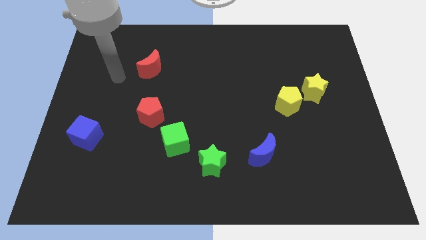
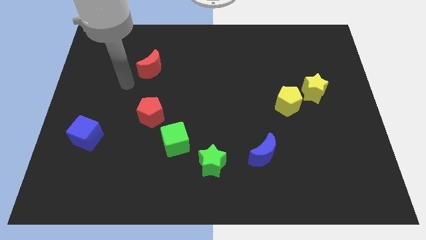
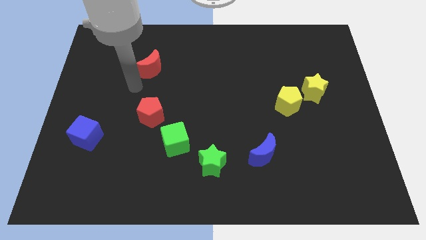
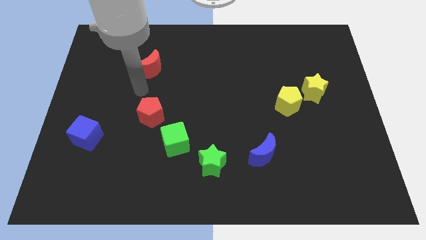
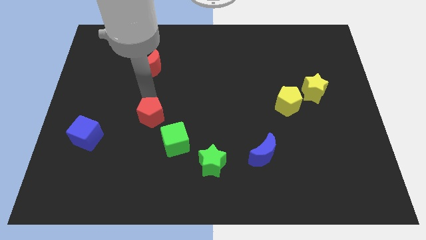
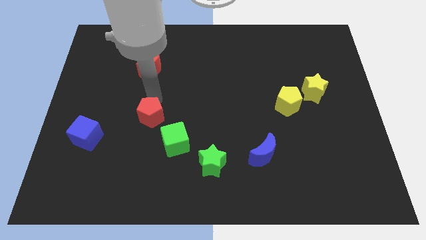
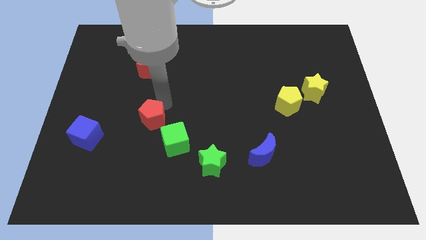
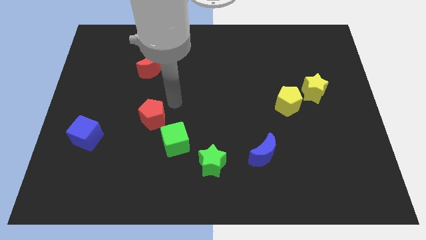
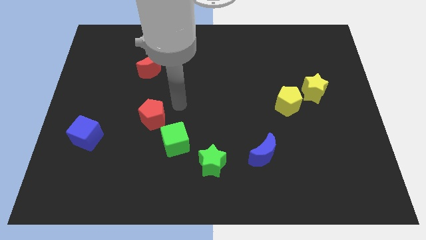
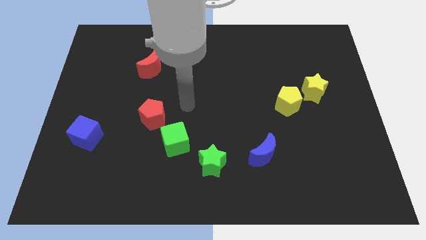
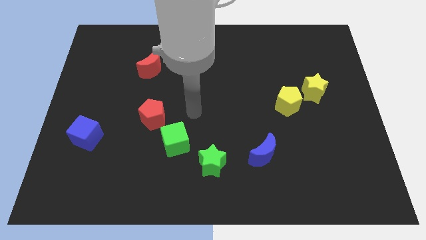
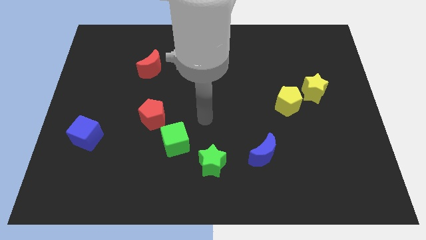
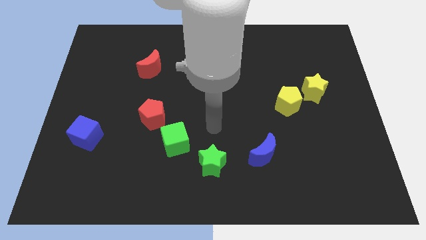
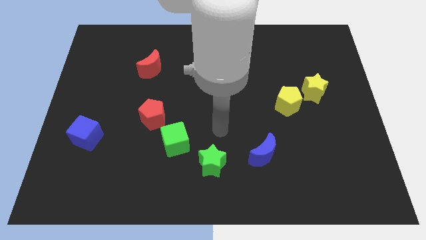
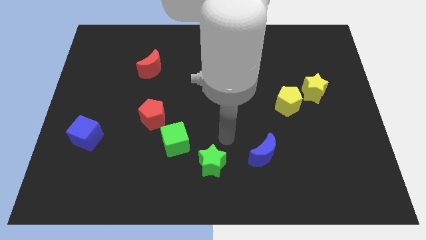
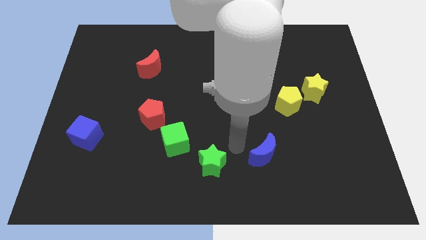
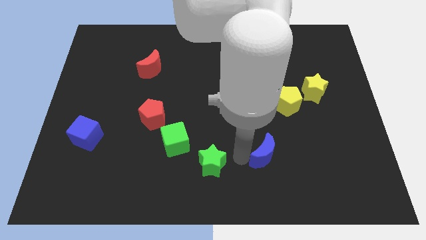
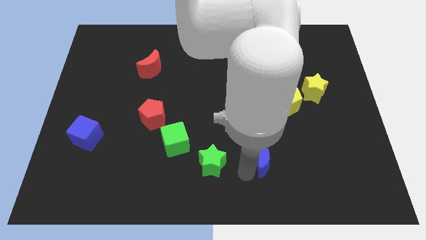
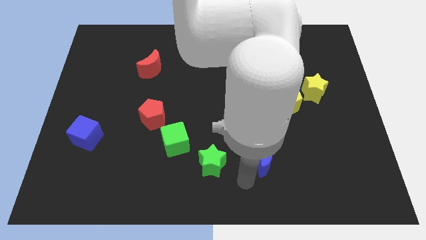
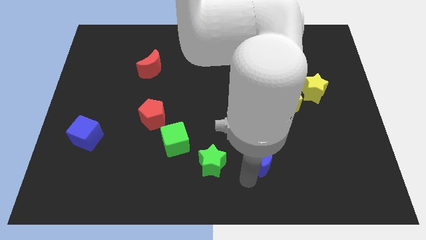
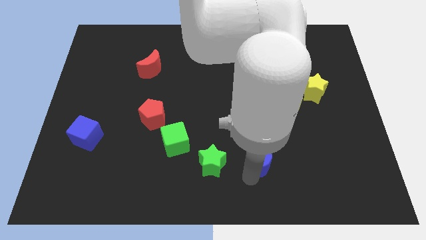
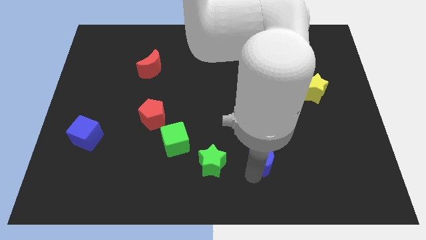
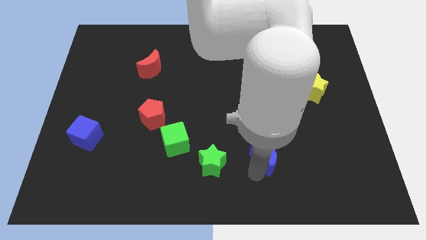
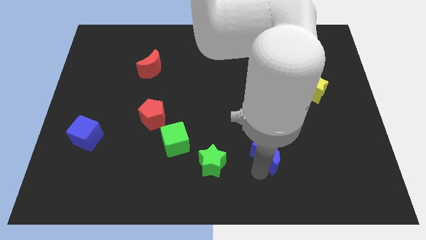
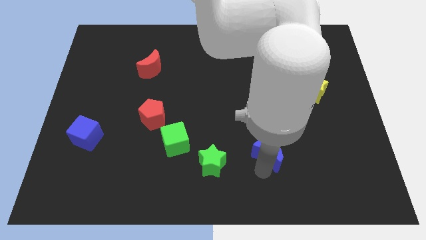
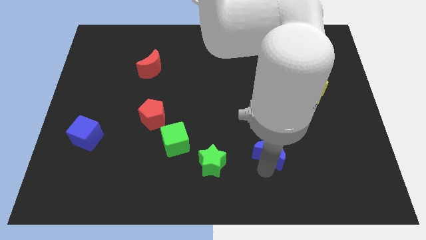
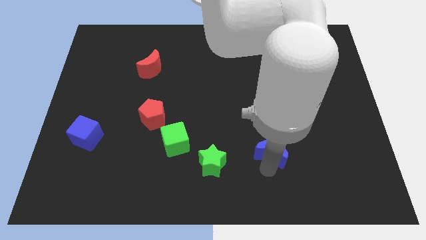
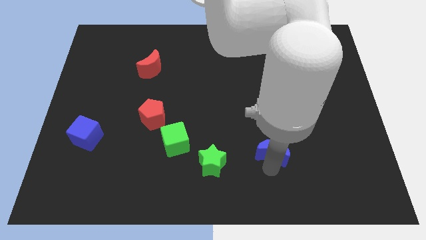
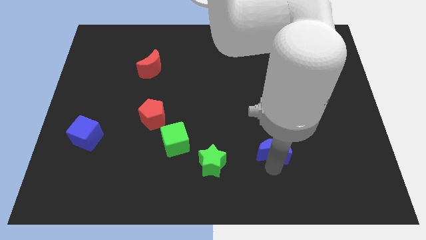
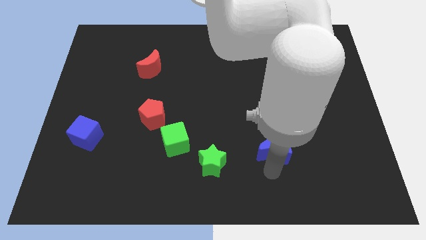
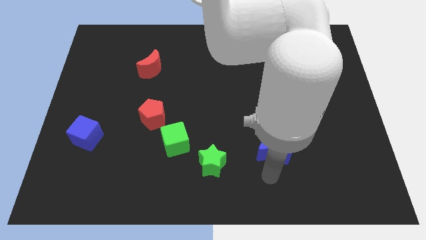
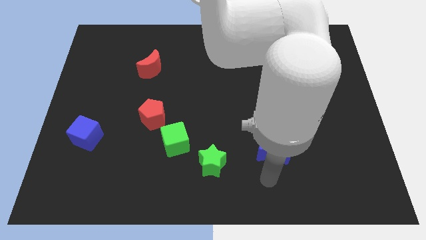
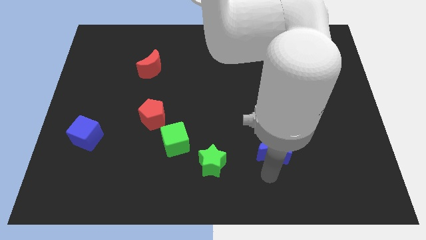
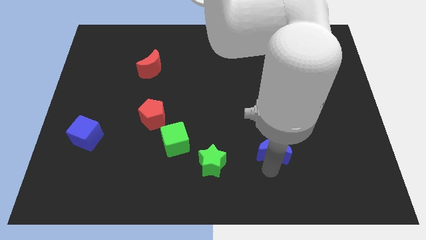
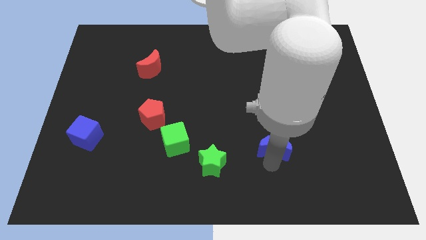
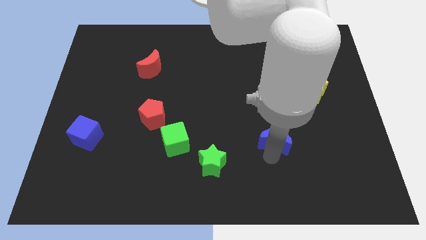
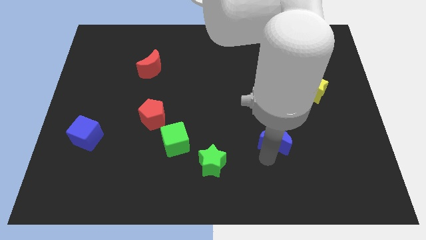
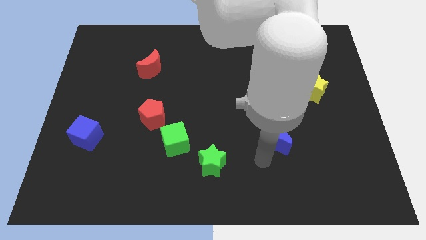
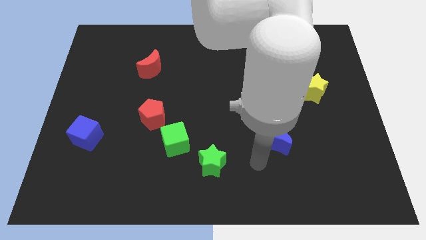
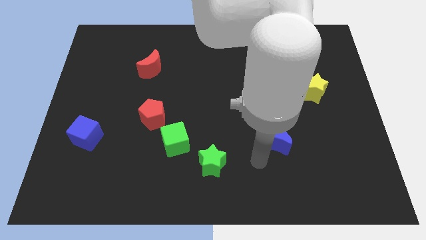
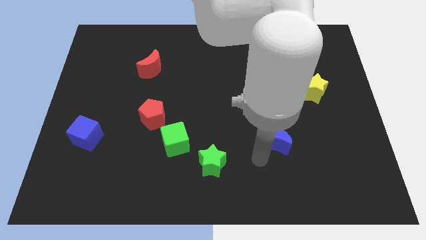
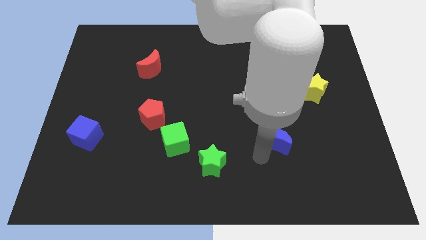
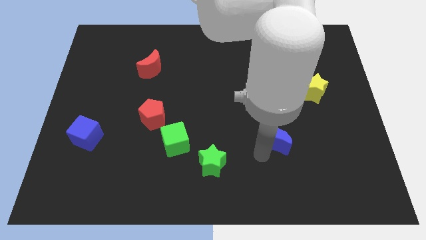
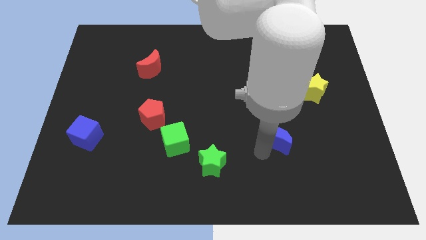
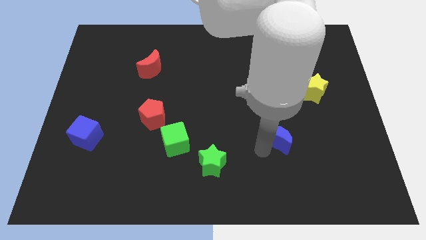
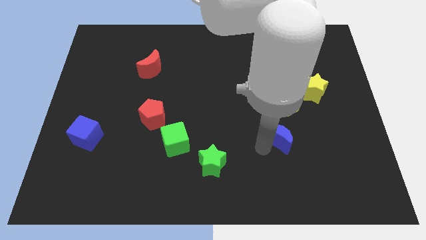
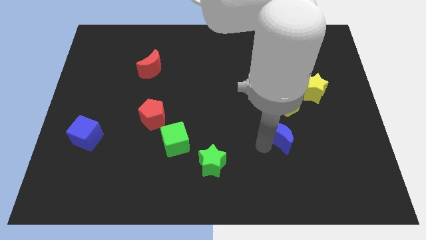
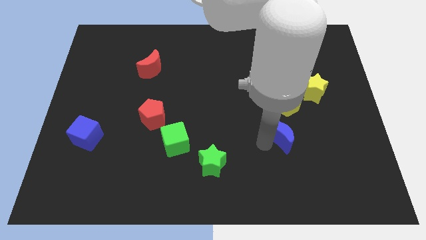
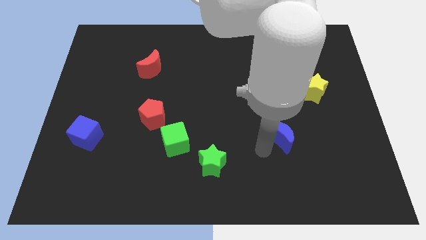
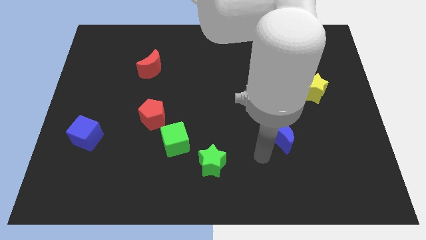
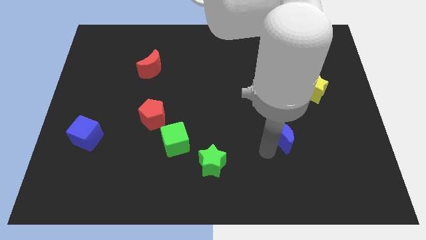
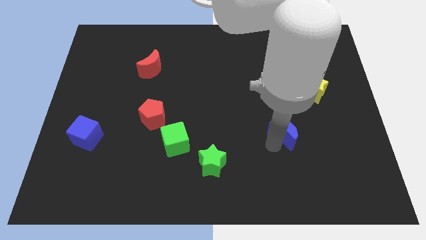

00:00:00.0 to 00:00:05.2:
slide the blue moon upwards and right diagonally slightly

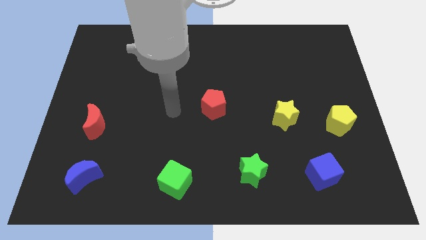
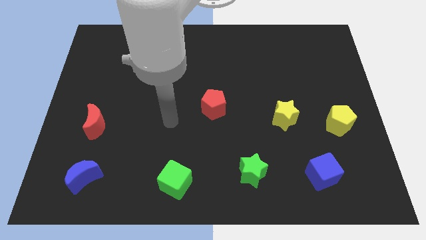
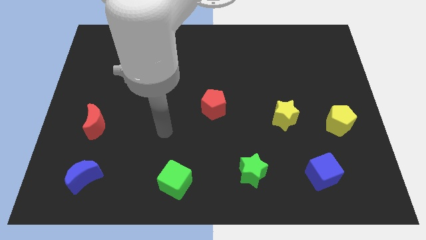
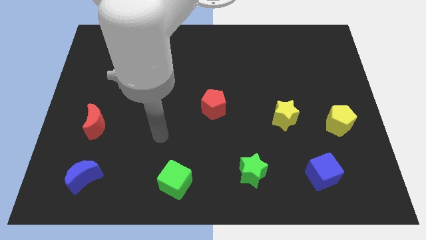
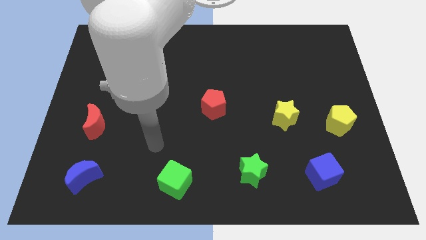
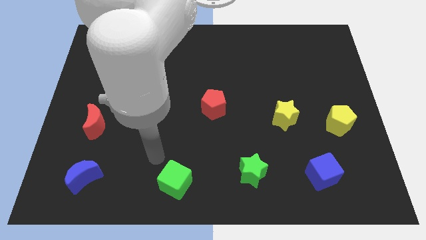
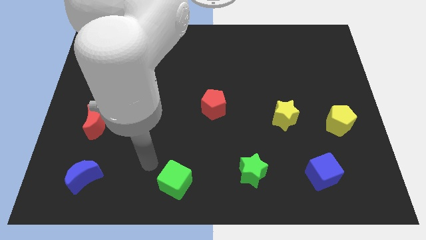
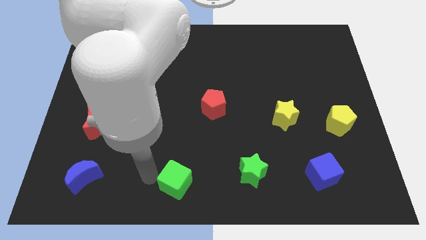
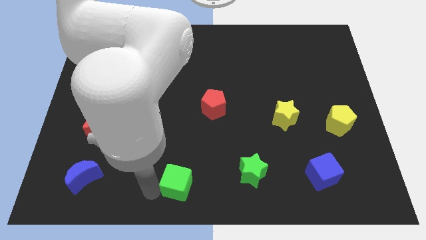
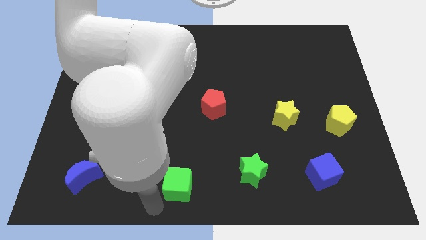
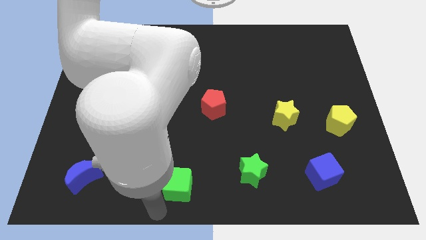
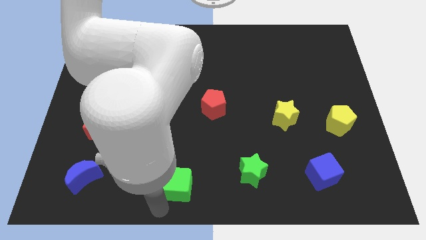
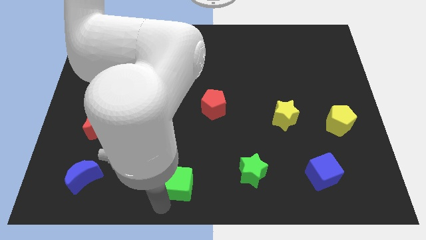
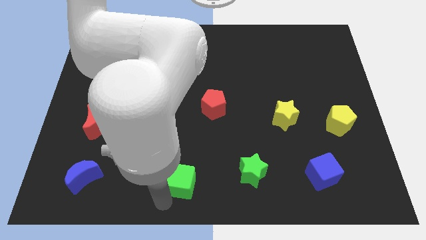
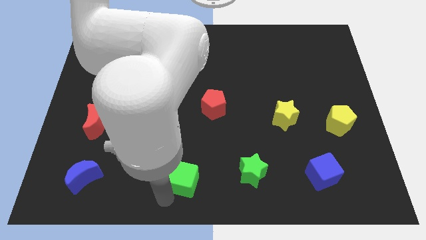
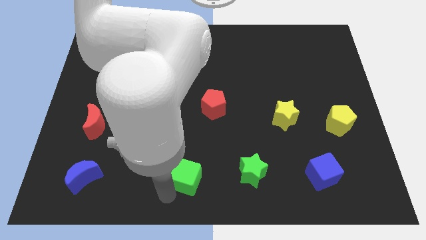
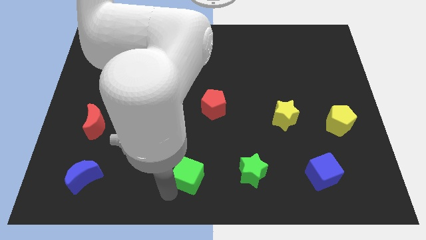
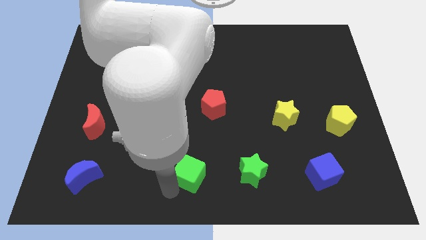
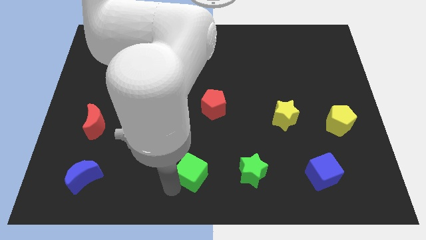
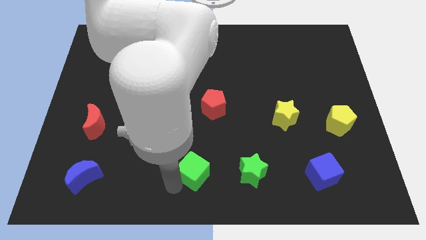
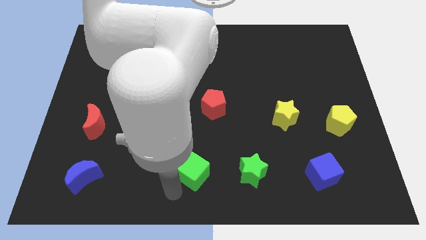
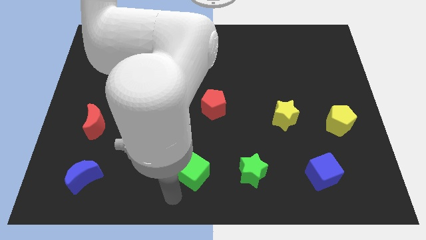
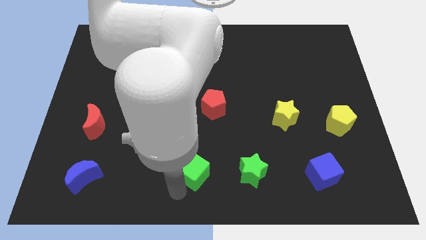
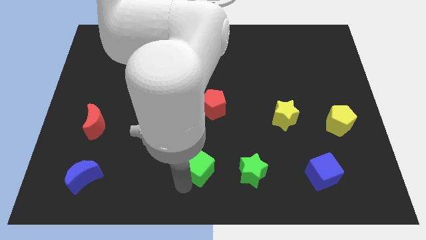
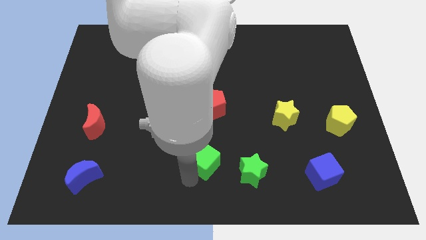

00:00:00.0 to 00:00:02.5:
slide the green cube up and right diagonally slightly

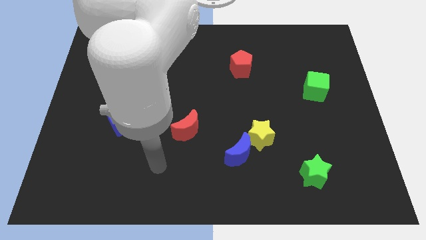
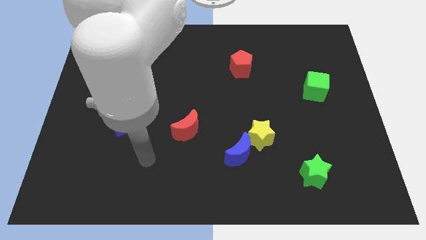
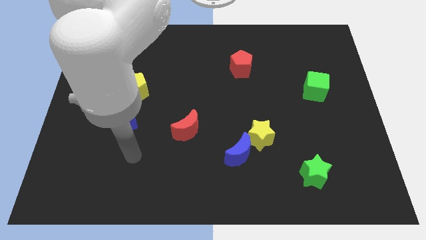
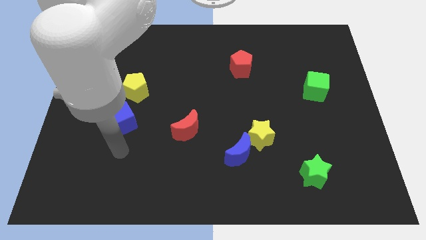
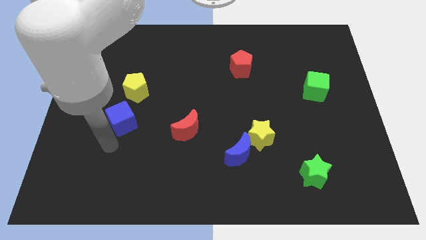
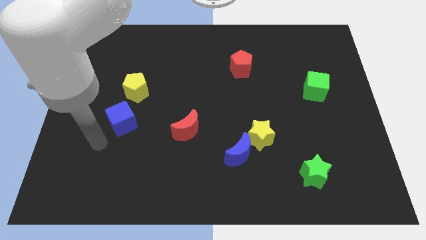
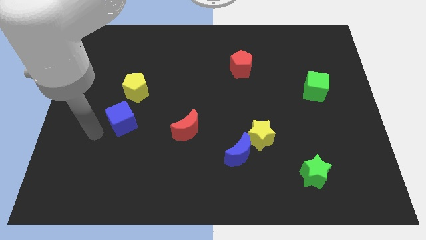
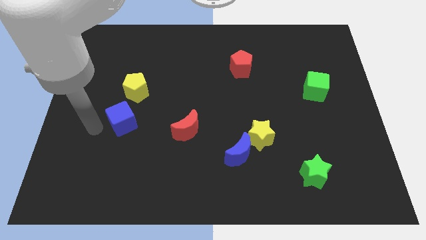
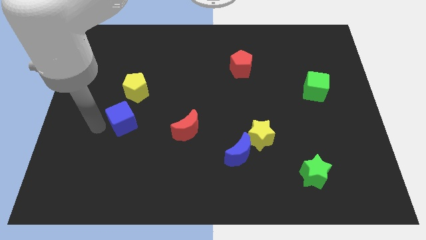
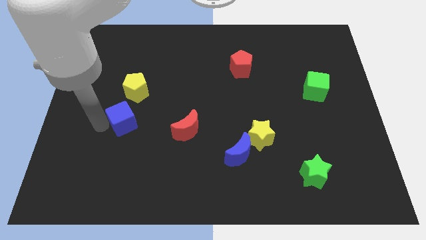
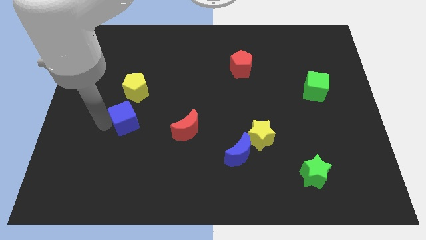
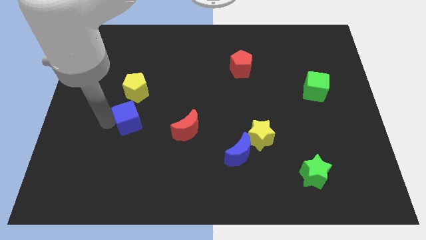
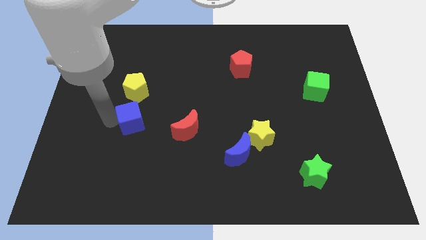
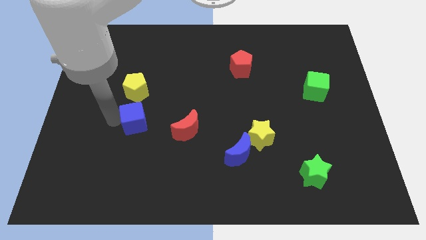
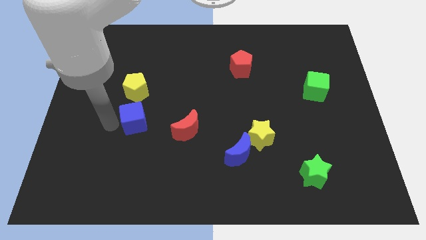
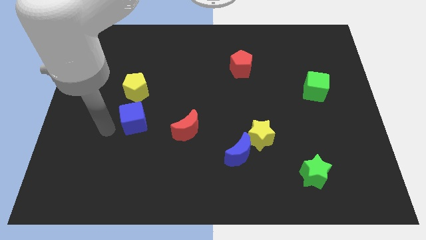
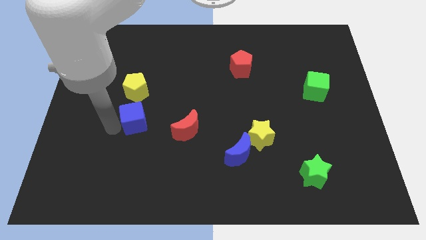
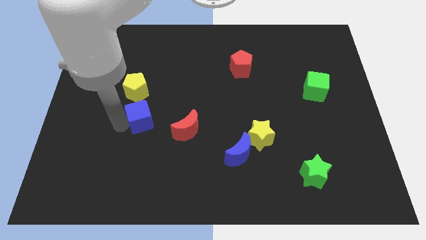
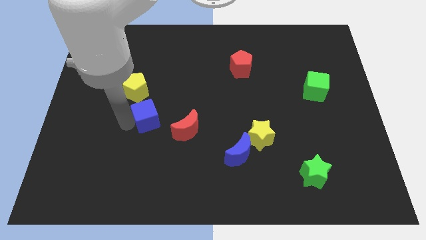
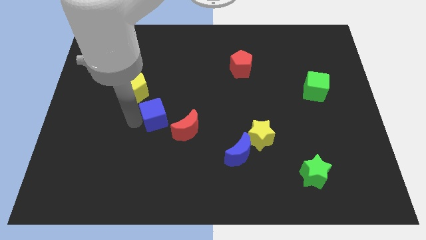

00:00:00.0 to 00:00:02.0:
move the blue cube right a bit
